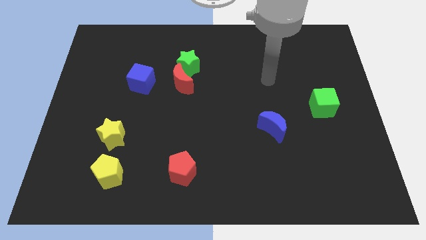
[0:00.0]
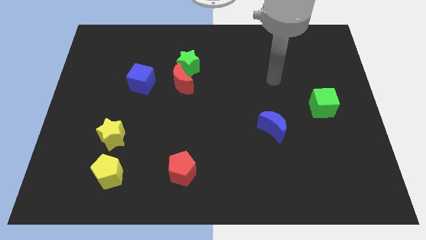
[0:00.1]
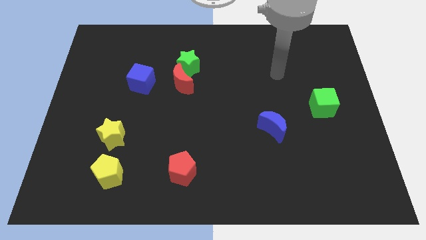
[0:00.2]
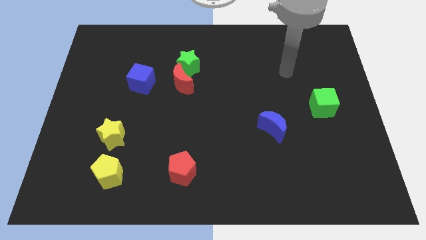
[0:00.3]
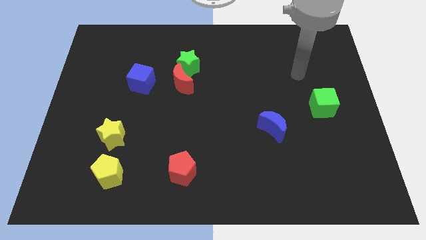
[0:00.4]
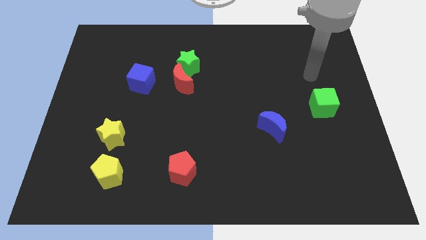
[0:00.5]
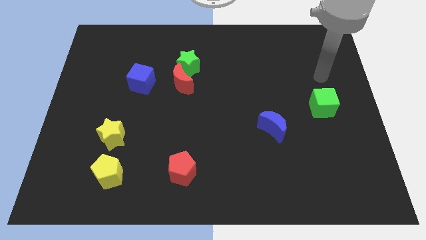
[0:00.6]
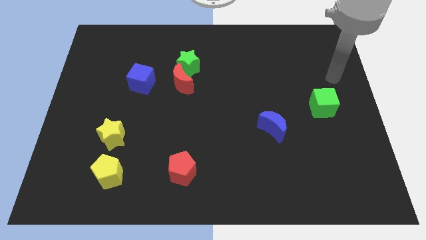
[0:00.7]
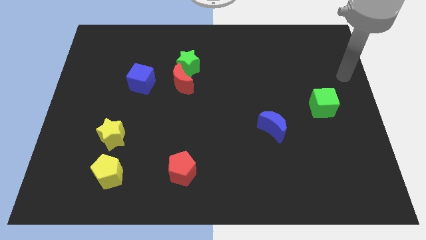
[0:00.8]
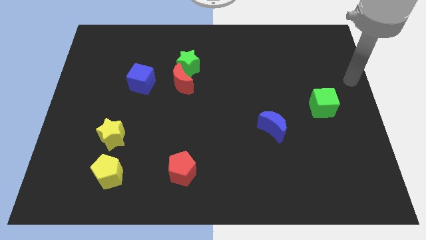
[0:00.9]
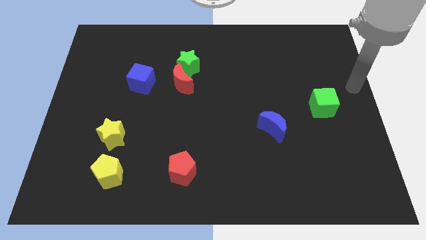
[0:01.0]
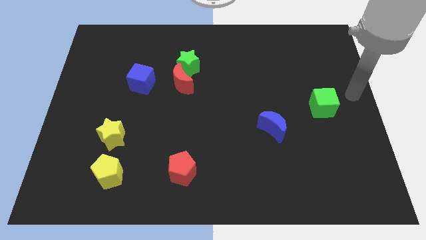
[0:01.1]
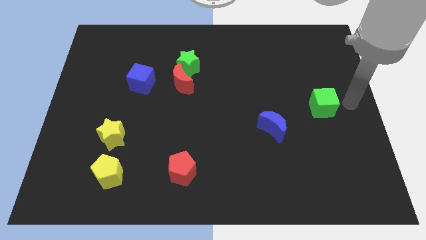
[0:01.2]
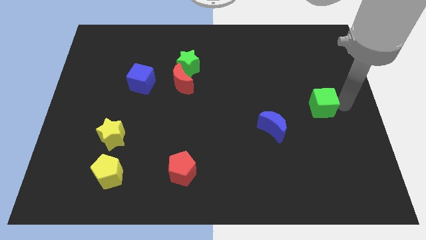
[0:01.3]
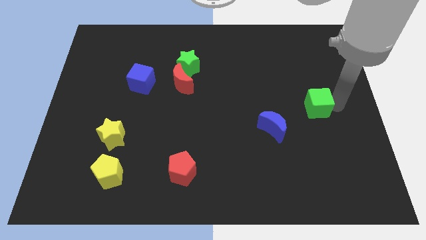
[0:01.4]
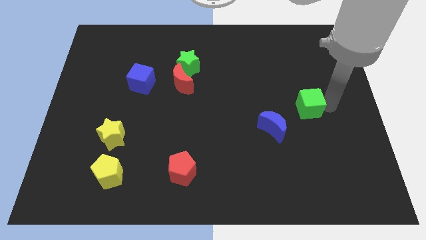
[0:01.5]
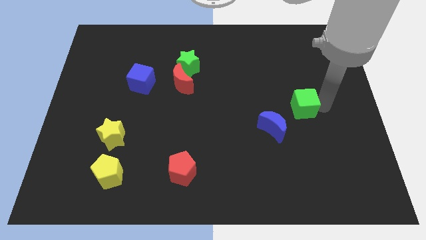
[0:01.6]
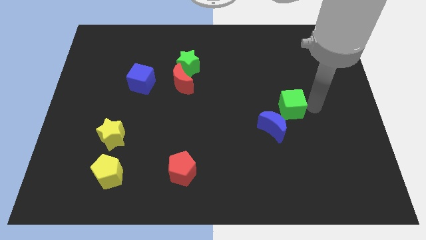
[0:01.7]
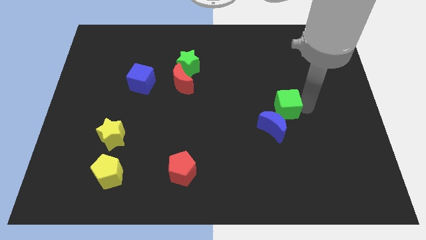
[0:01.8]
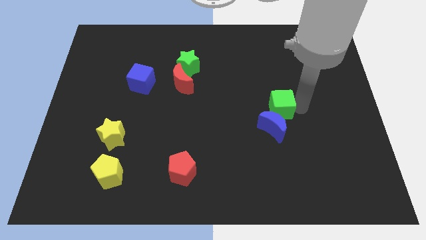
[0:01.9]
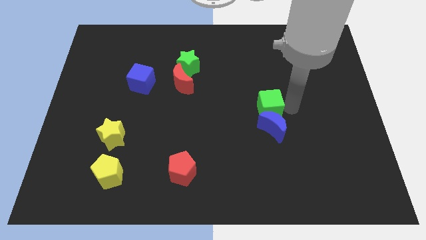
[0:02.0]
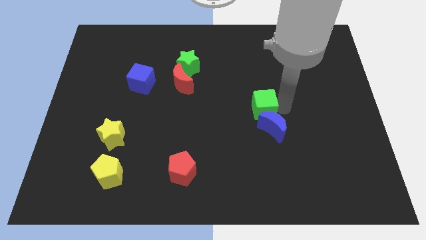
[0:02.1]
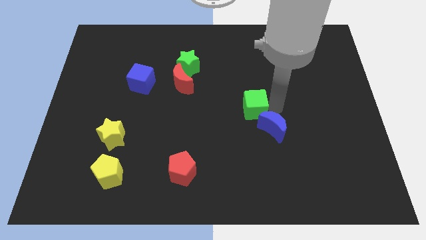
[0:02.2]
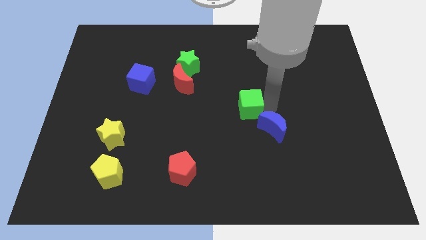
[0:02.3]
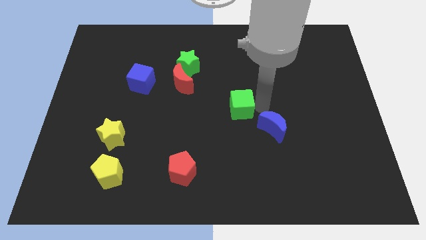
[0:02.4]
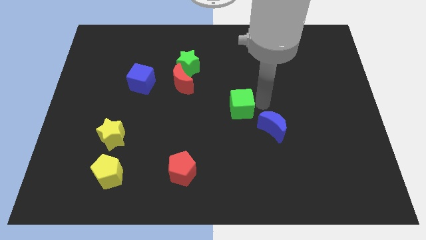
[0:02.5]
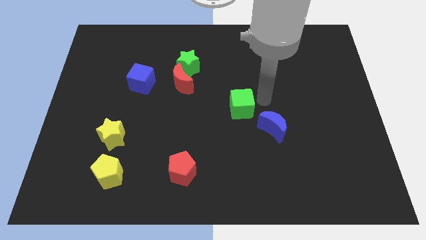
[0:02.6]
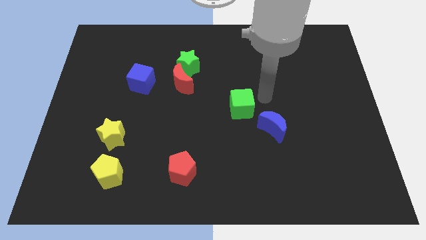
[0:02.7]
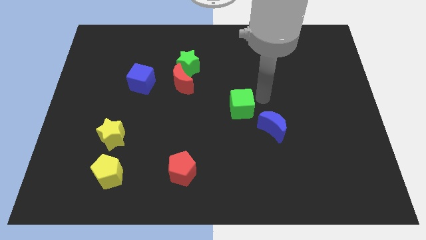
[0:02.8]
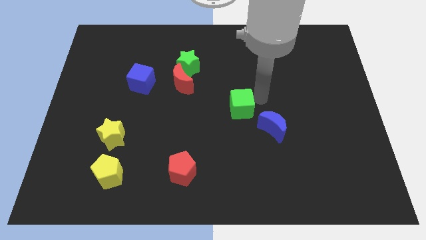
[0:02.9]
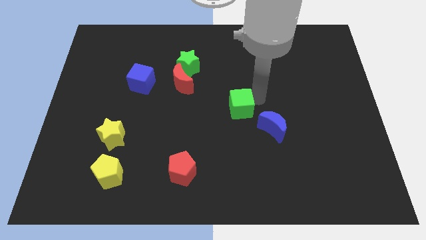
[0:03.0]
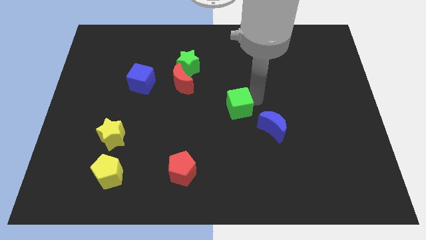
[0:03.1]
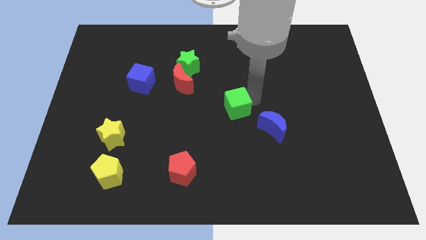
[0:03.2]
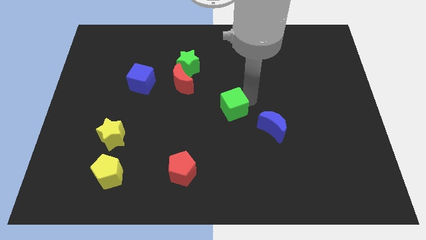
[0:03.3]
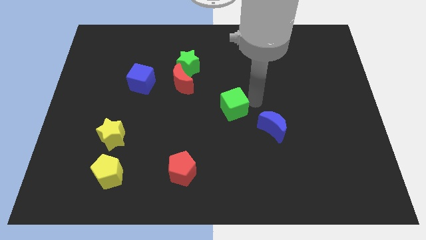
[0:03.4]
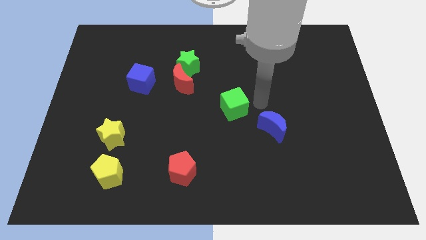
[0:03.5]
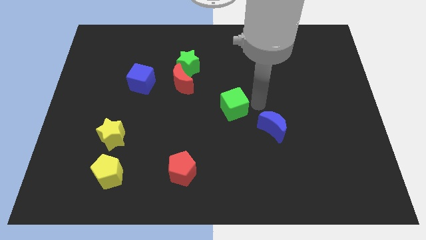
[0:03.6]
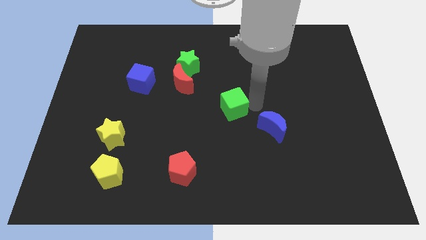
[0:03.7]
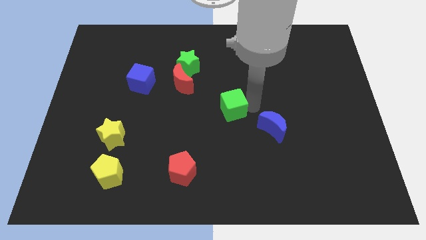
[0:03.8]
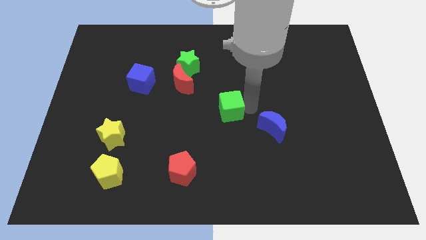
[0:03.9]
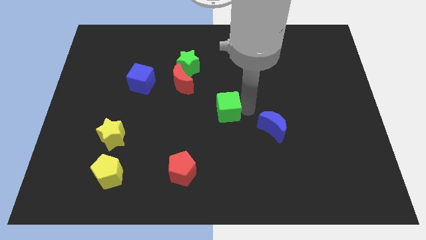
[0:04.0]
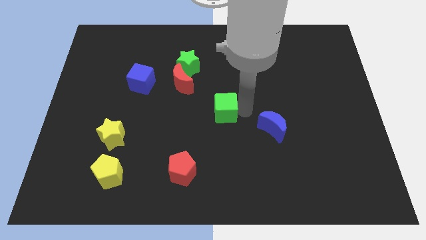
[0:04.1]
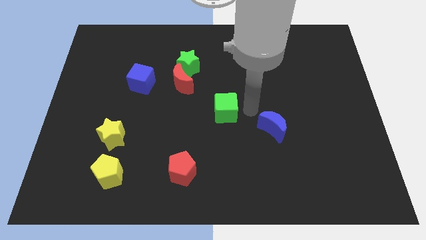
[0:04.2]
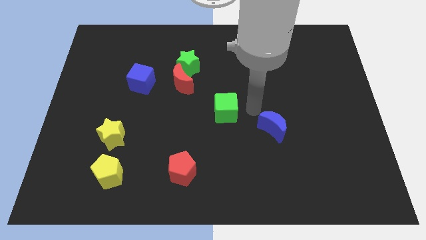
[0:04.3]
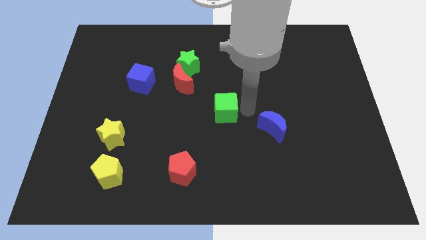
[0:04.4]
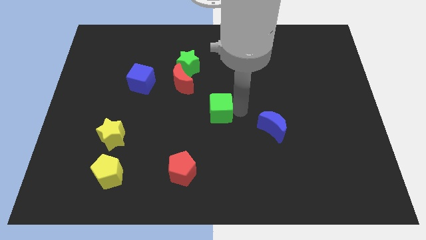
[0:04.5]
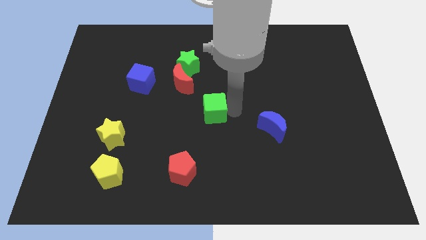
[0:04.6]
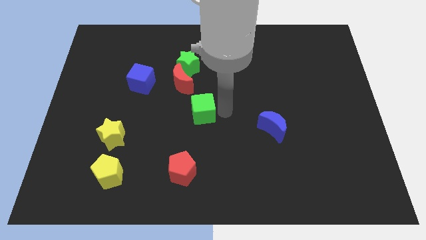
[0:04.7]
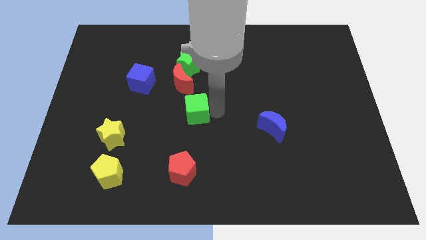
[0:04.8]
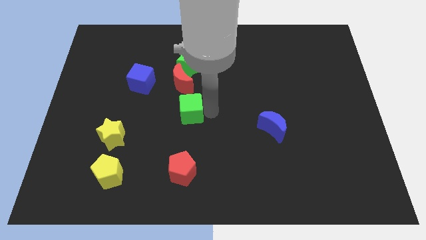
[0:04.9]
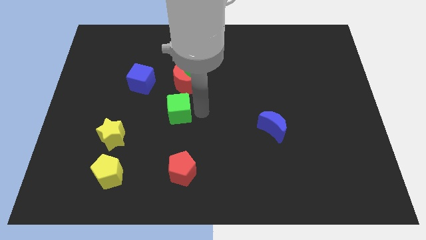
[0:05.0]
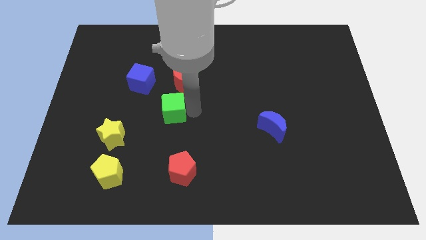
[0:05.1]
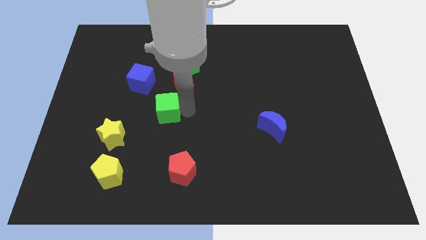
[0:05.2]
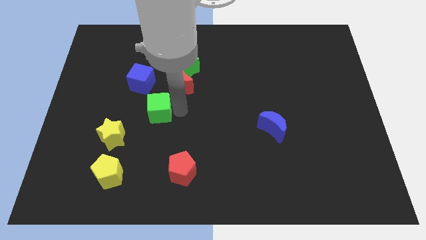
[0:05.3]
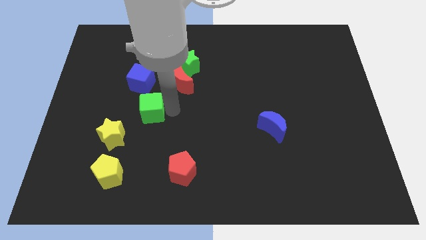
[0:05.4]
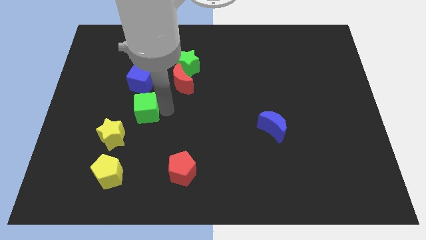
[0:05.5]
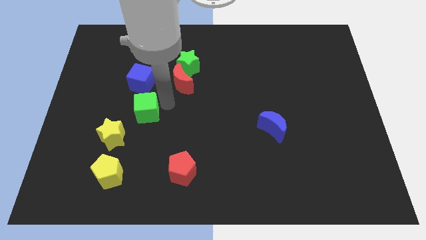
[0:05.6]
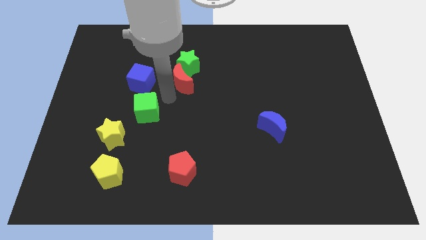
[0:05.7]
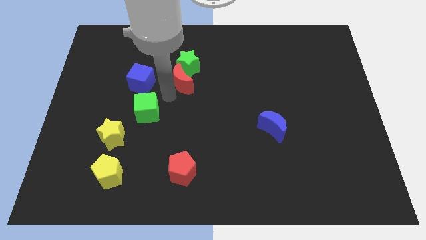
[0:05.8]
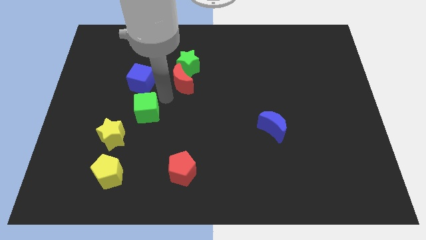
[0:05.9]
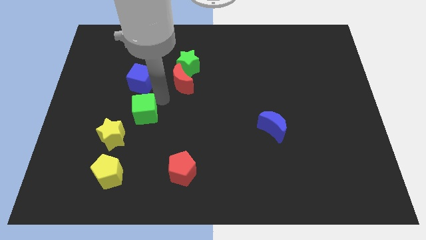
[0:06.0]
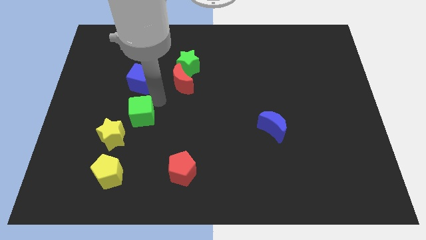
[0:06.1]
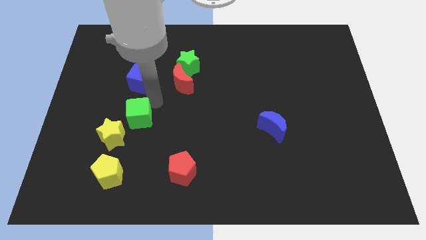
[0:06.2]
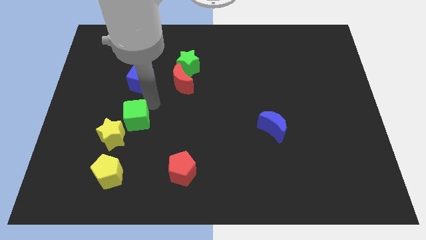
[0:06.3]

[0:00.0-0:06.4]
move the green cube to the top side of the yellow pentagon

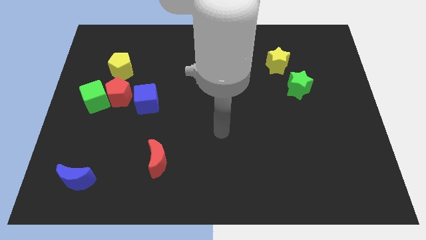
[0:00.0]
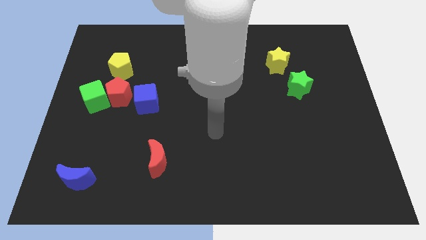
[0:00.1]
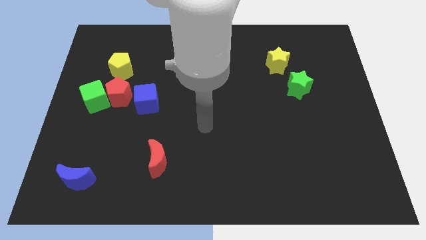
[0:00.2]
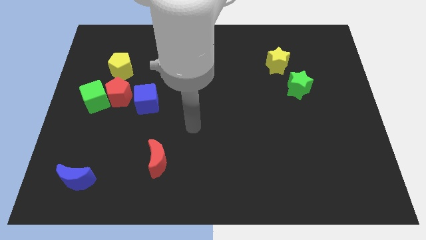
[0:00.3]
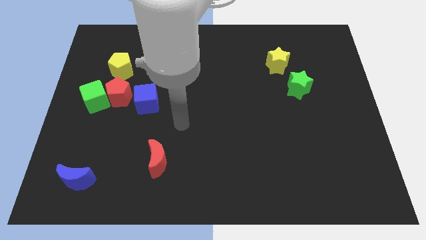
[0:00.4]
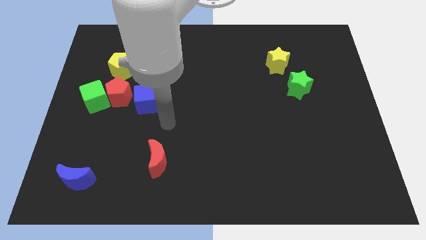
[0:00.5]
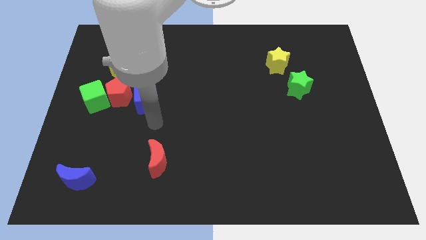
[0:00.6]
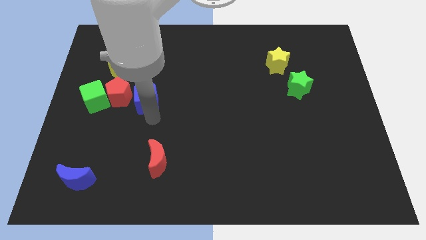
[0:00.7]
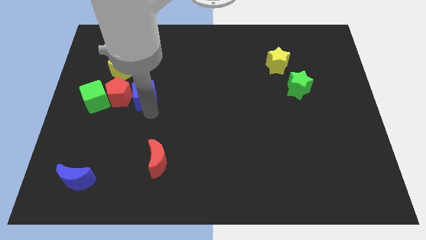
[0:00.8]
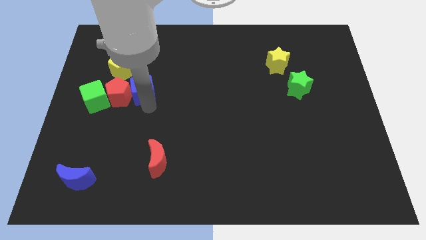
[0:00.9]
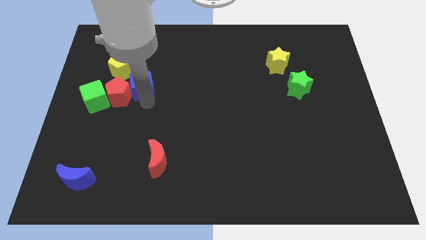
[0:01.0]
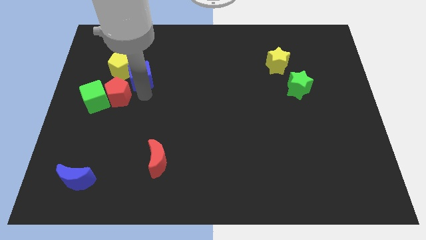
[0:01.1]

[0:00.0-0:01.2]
put the blue cube to the top side of the red pentagon
